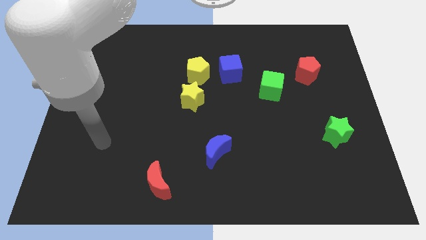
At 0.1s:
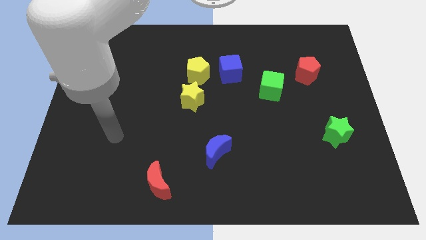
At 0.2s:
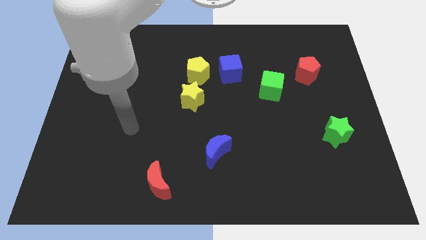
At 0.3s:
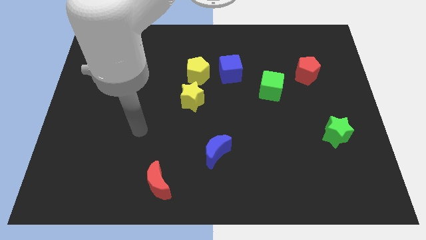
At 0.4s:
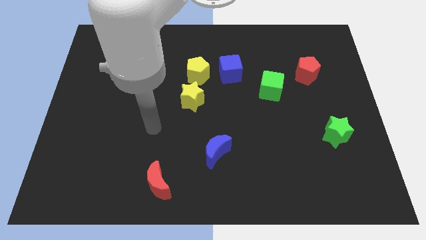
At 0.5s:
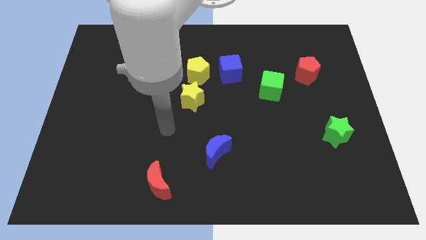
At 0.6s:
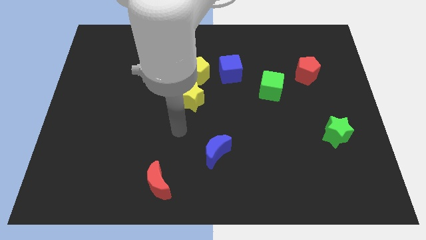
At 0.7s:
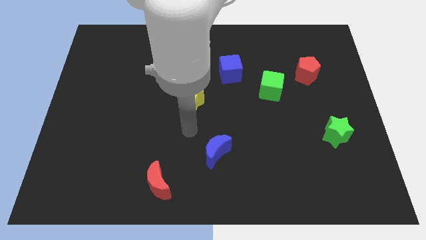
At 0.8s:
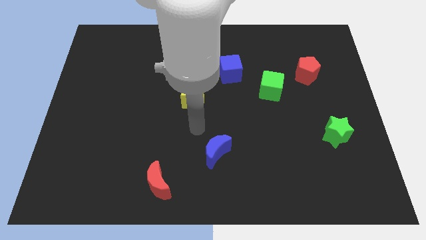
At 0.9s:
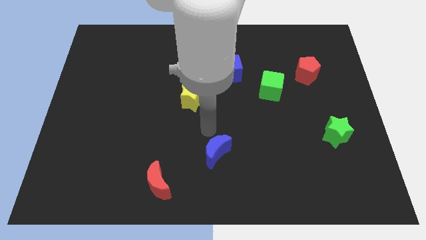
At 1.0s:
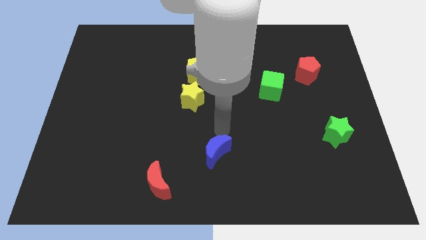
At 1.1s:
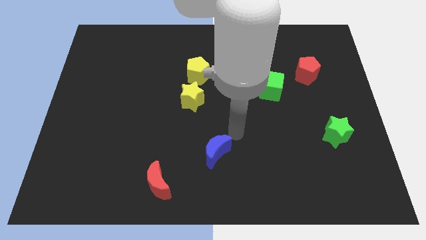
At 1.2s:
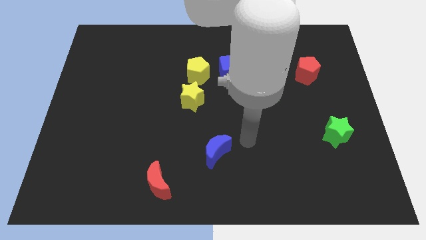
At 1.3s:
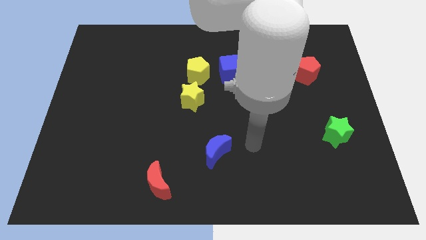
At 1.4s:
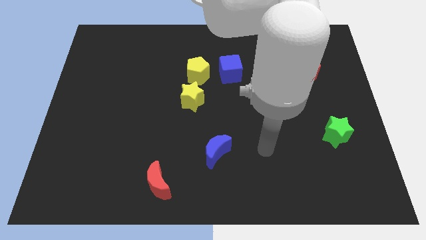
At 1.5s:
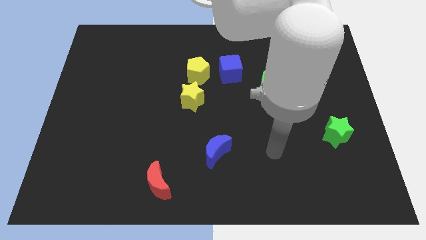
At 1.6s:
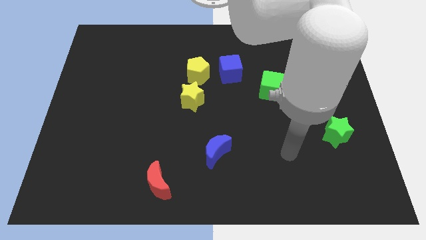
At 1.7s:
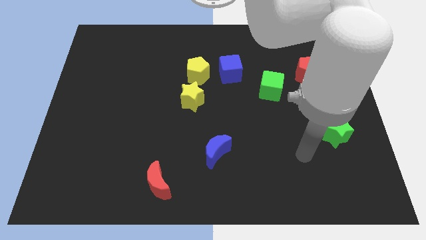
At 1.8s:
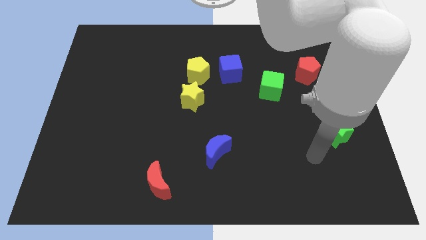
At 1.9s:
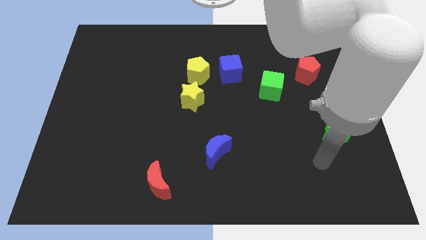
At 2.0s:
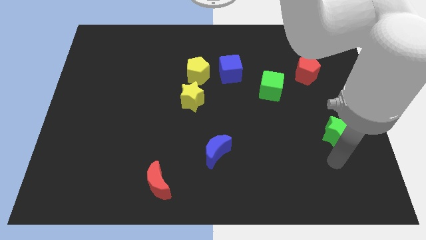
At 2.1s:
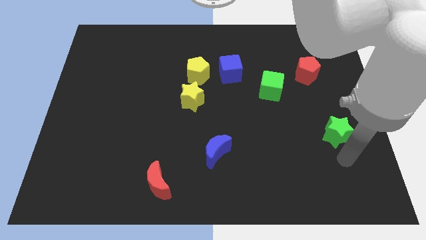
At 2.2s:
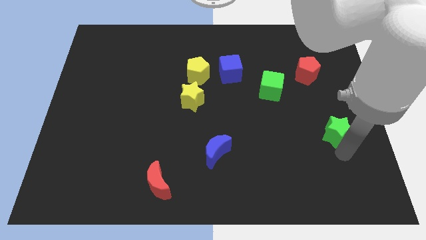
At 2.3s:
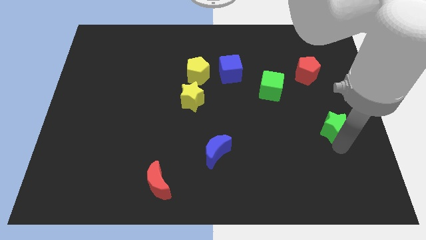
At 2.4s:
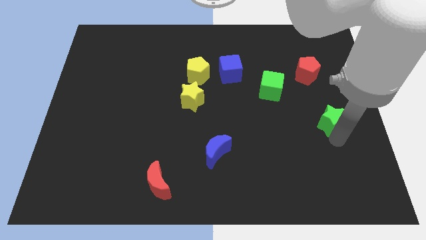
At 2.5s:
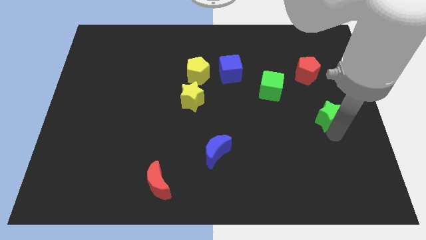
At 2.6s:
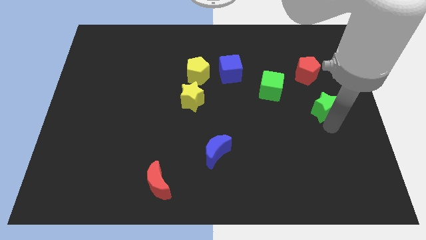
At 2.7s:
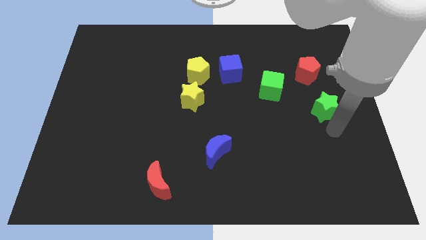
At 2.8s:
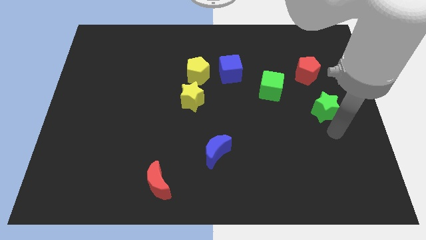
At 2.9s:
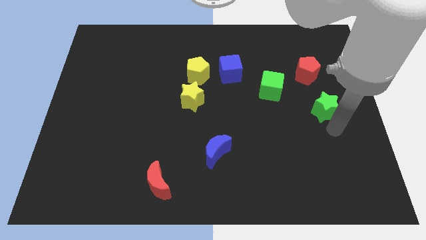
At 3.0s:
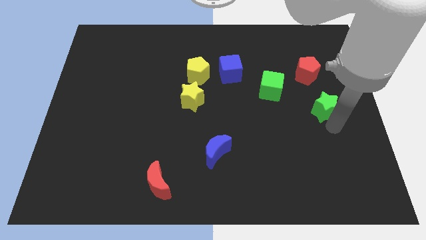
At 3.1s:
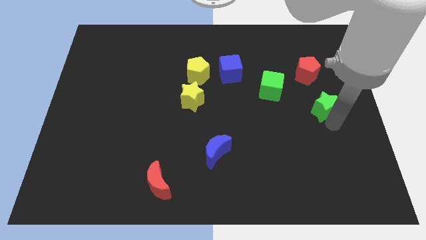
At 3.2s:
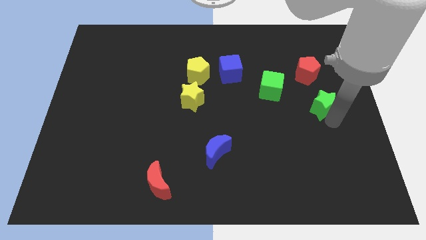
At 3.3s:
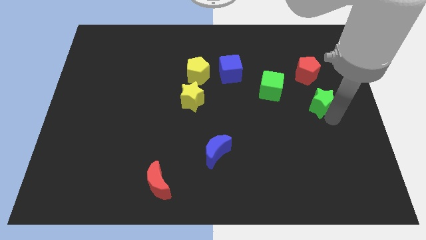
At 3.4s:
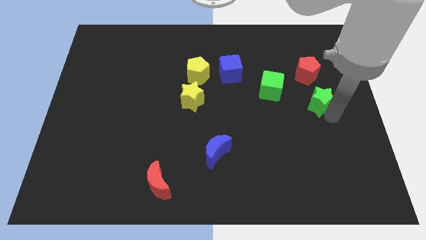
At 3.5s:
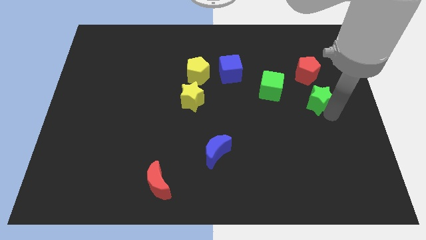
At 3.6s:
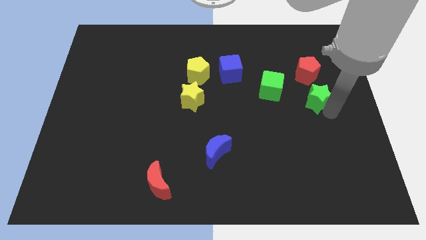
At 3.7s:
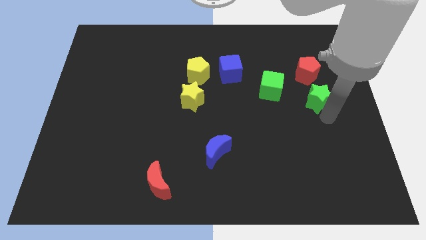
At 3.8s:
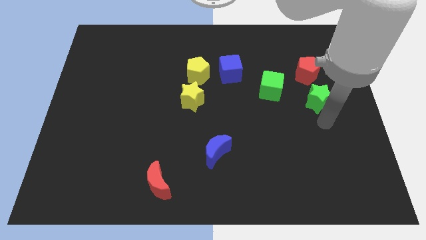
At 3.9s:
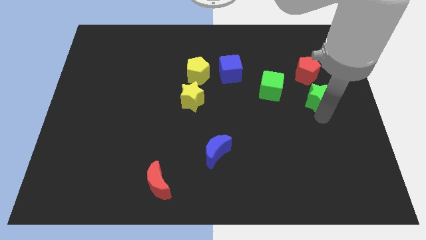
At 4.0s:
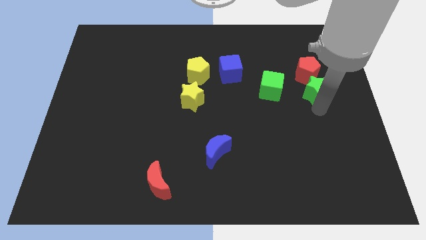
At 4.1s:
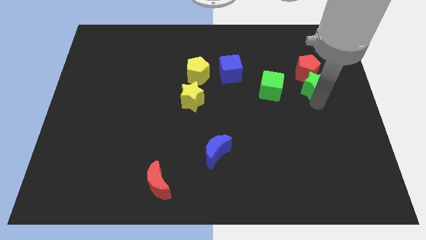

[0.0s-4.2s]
put the green star to the red pentagon

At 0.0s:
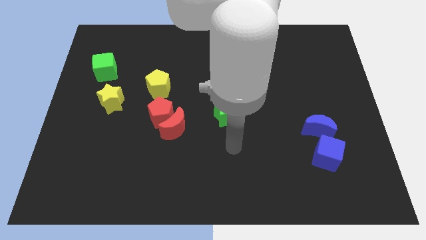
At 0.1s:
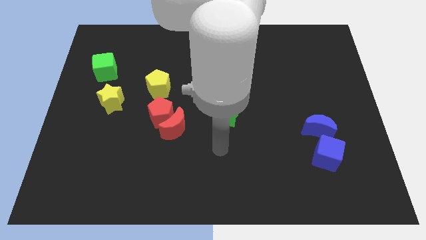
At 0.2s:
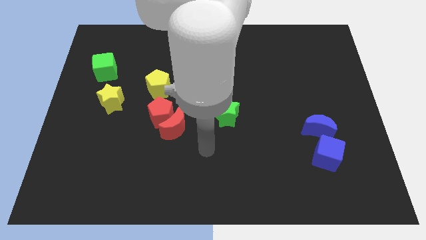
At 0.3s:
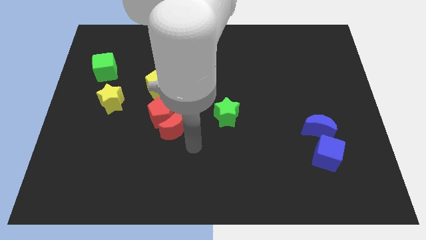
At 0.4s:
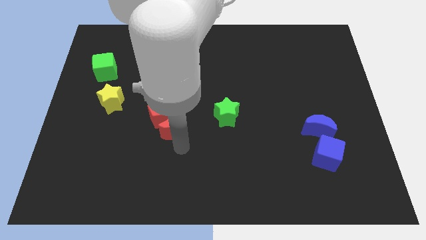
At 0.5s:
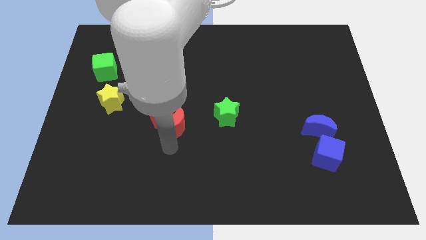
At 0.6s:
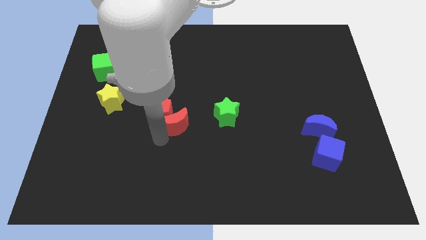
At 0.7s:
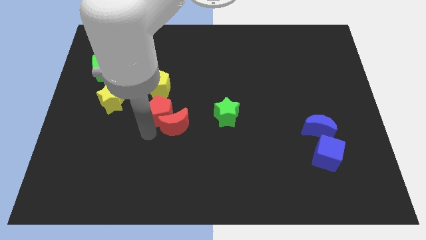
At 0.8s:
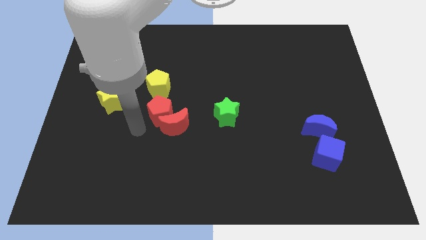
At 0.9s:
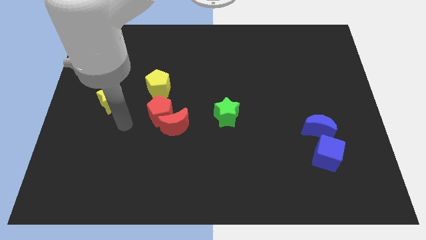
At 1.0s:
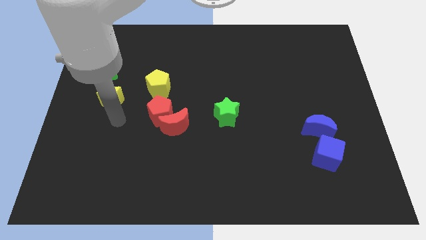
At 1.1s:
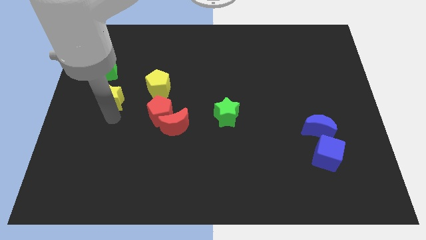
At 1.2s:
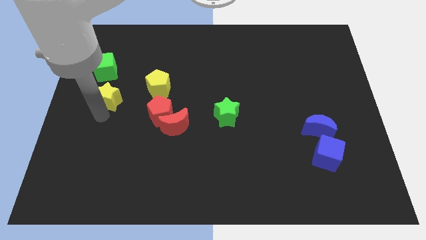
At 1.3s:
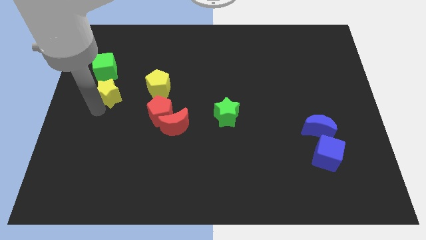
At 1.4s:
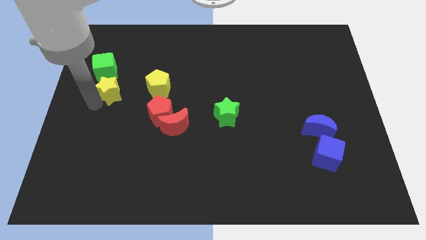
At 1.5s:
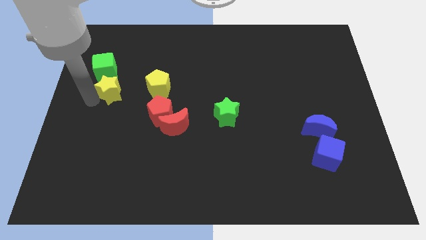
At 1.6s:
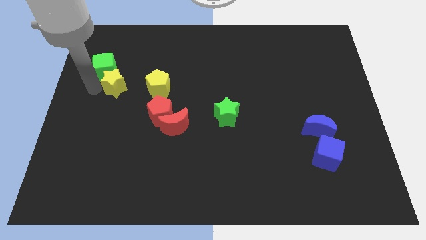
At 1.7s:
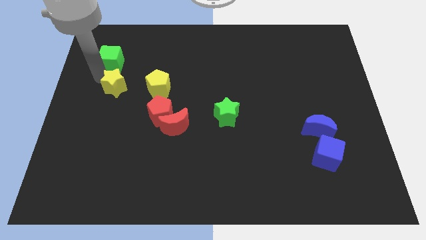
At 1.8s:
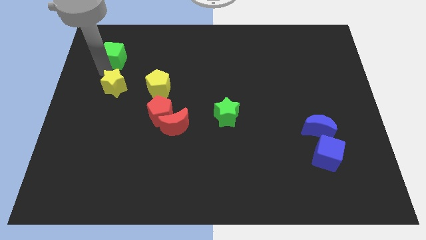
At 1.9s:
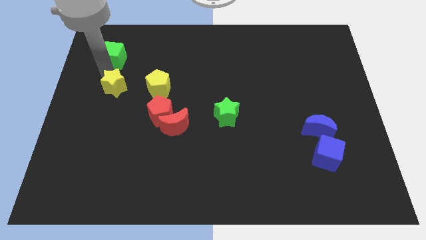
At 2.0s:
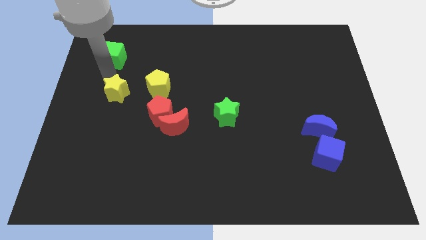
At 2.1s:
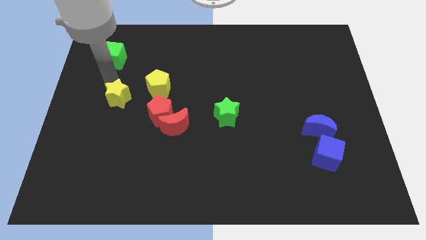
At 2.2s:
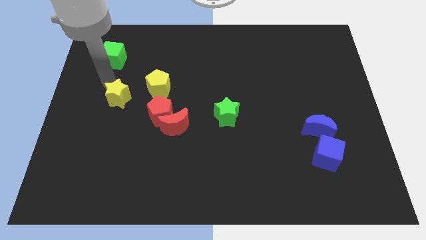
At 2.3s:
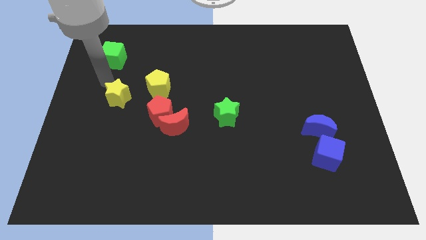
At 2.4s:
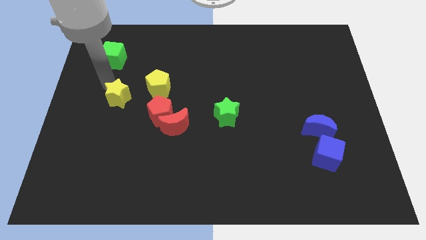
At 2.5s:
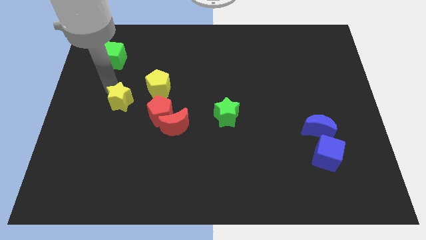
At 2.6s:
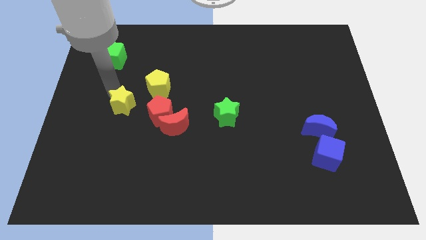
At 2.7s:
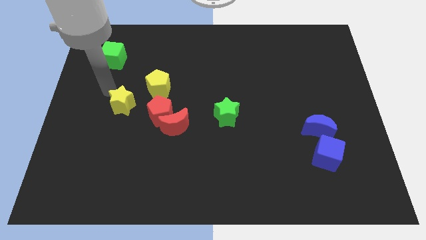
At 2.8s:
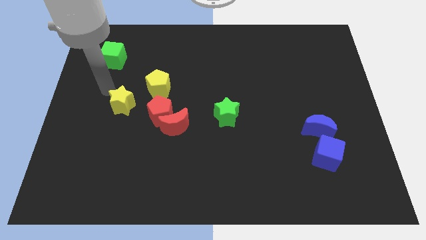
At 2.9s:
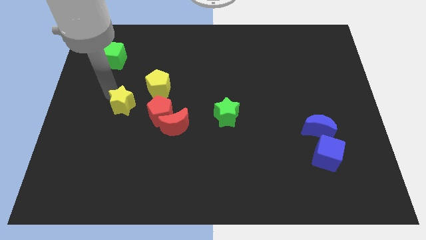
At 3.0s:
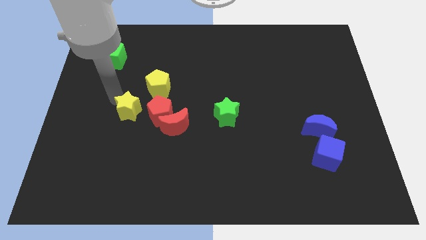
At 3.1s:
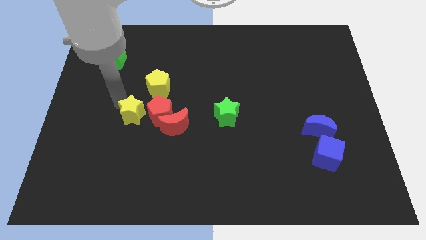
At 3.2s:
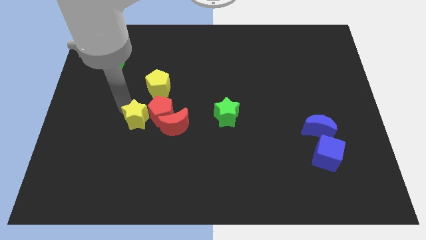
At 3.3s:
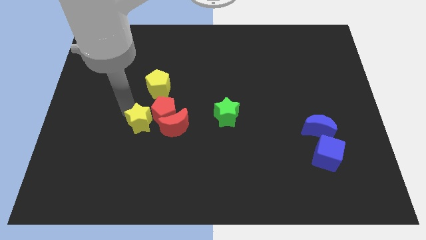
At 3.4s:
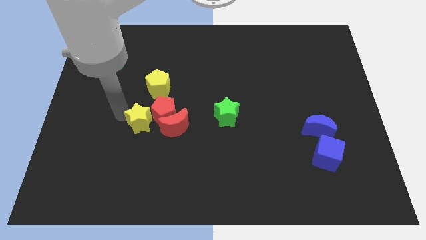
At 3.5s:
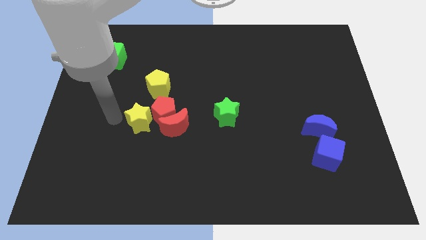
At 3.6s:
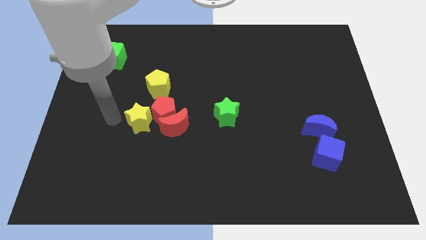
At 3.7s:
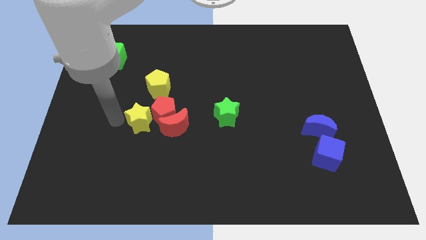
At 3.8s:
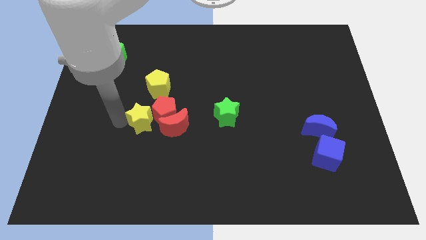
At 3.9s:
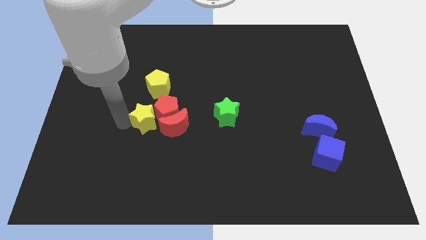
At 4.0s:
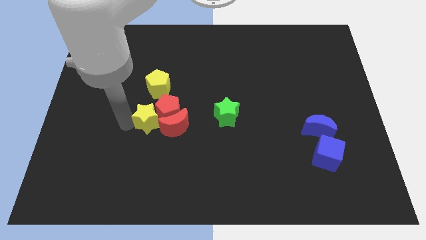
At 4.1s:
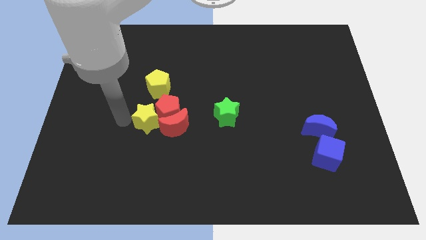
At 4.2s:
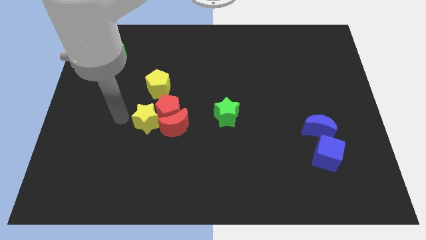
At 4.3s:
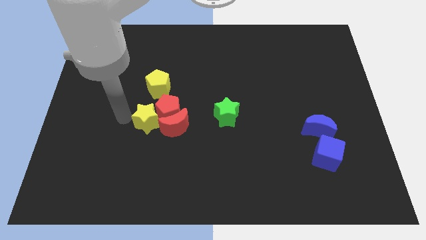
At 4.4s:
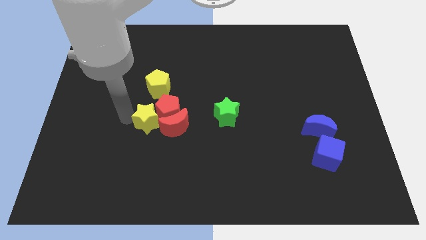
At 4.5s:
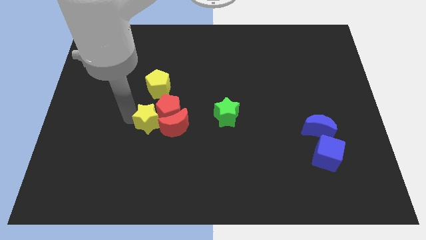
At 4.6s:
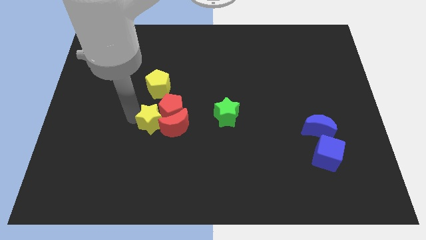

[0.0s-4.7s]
put the yellow star towards the red moon
